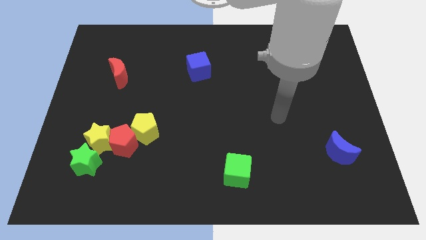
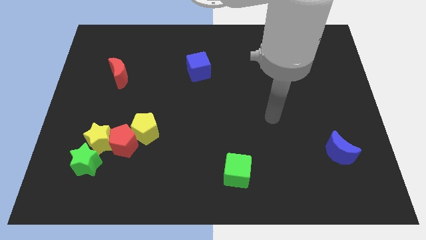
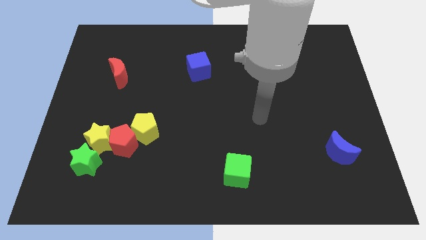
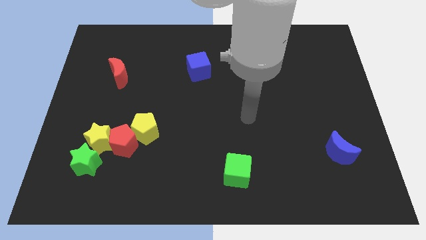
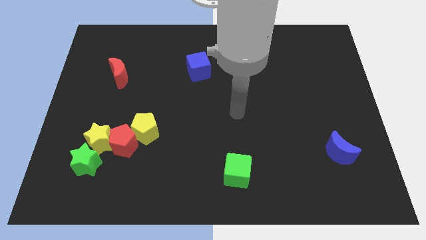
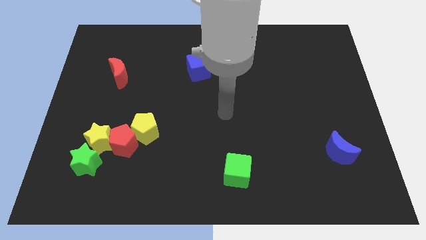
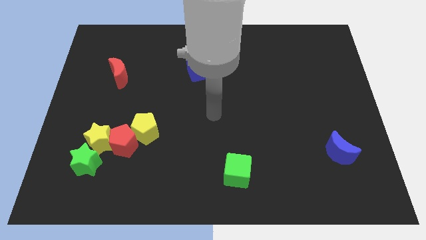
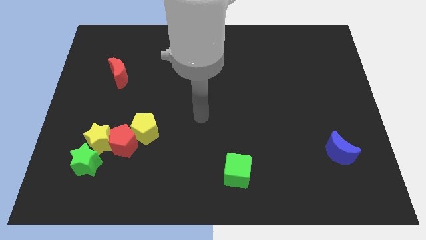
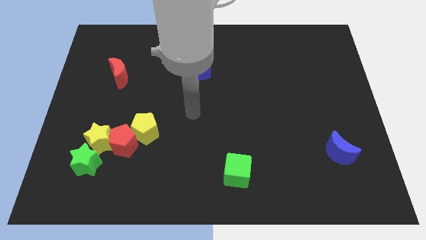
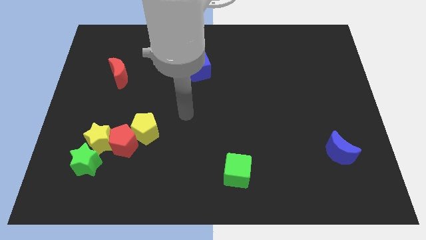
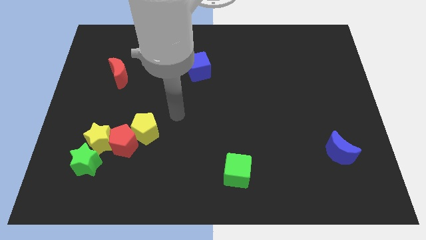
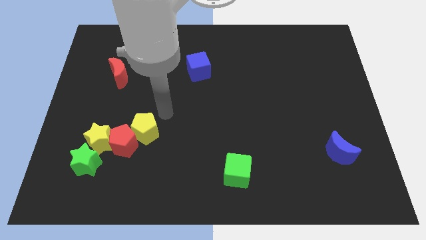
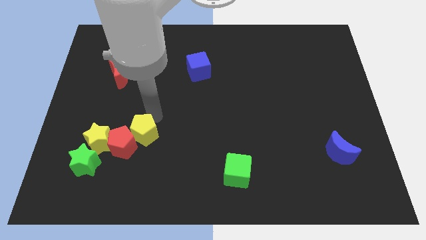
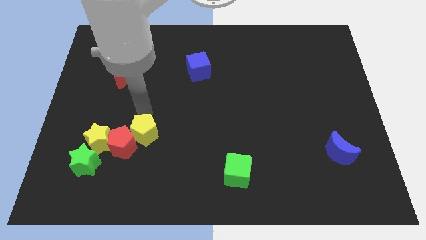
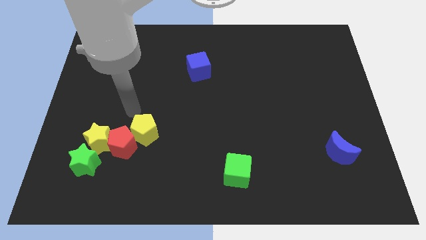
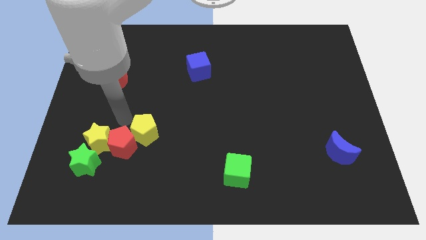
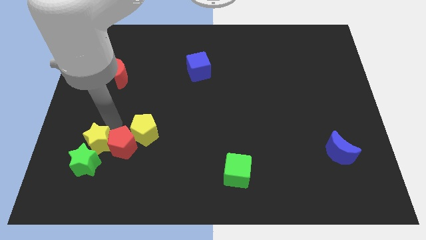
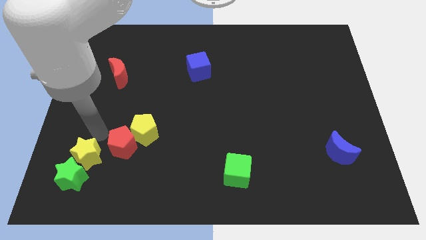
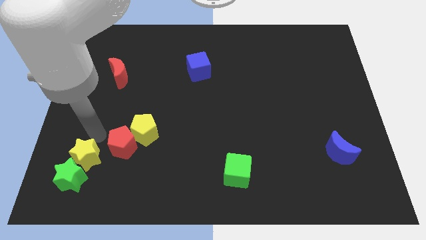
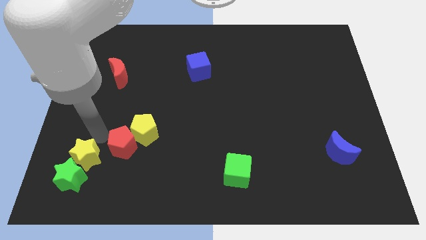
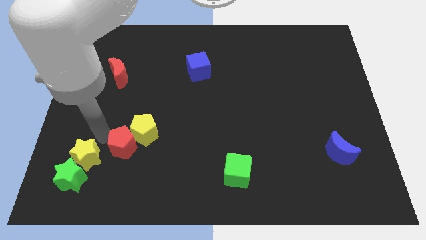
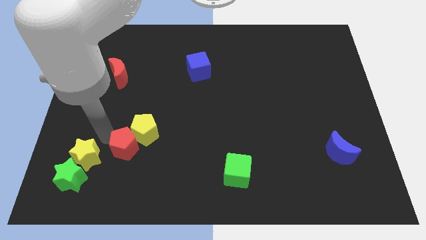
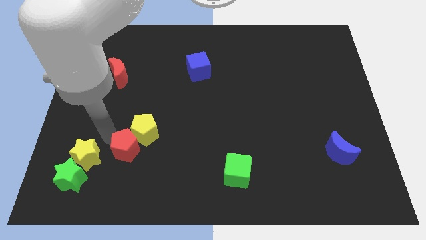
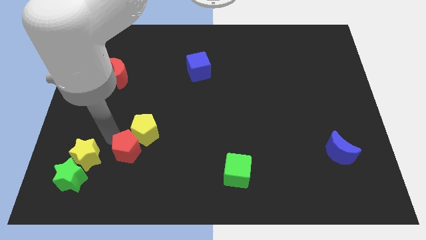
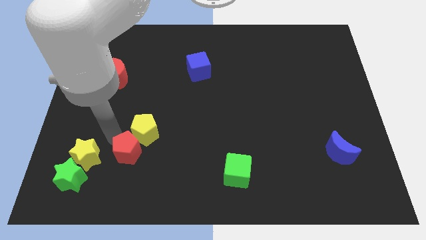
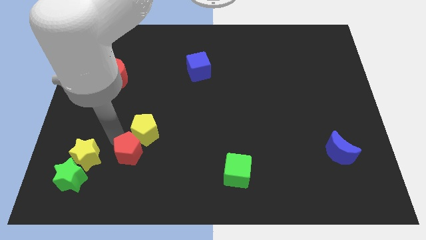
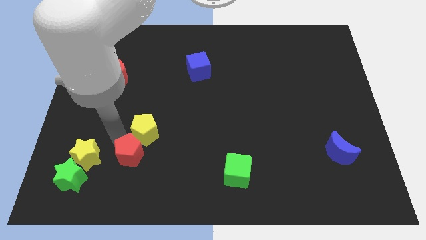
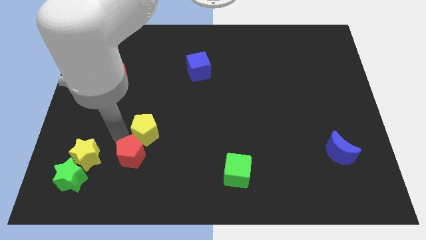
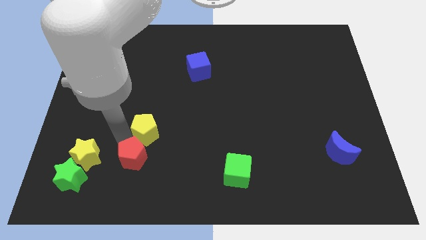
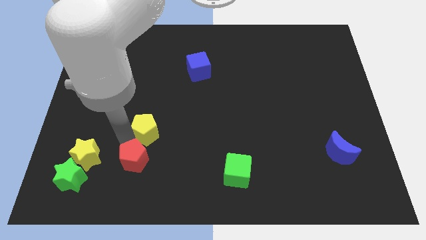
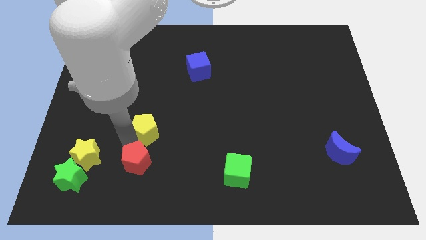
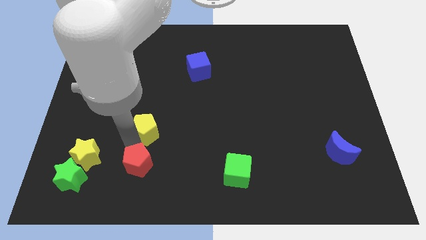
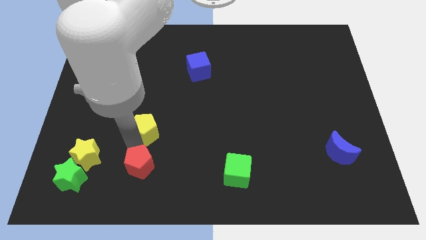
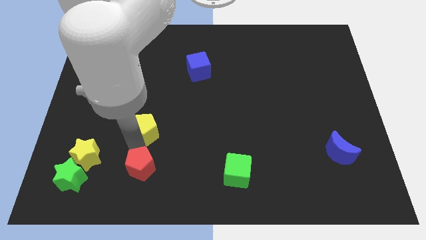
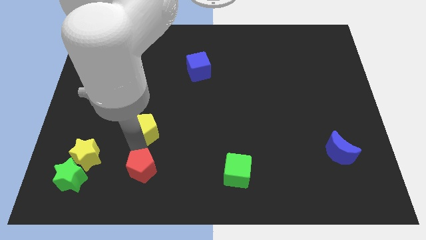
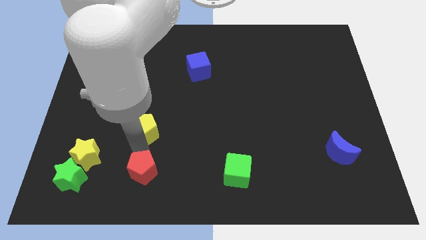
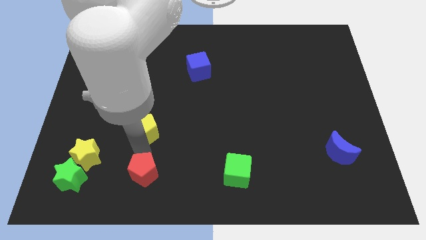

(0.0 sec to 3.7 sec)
pull the red pentagon apart from the clump

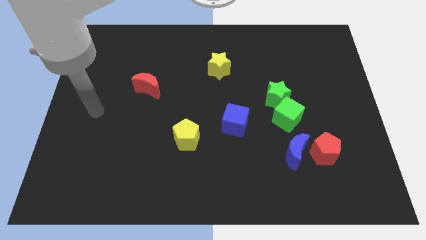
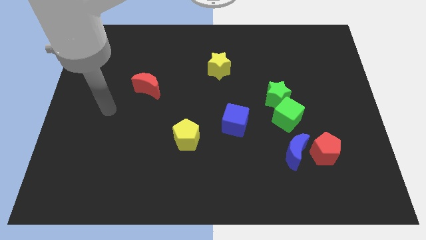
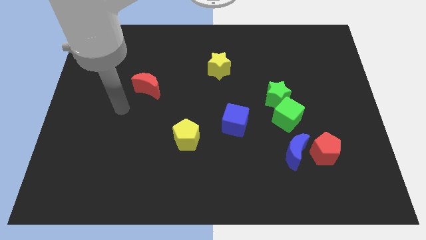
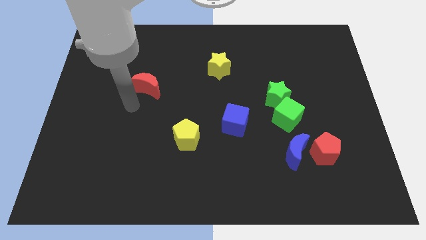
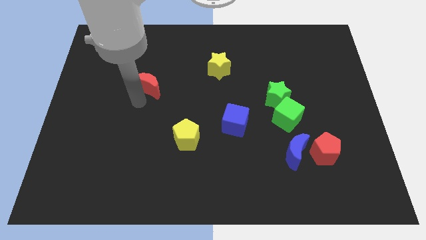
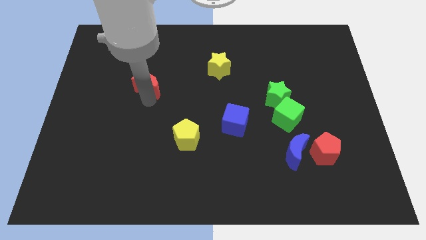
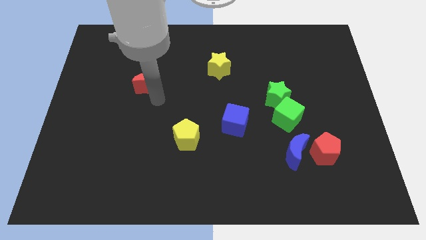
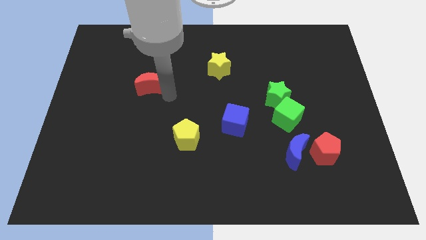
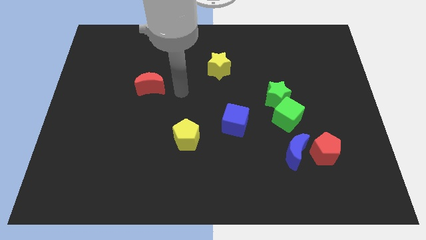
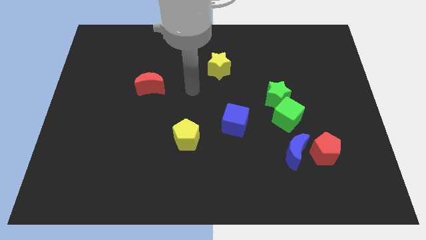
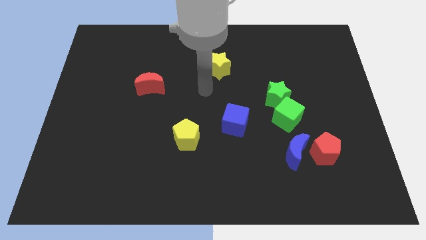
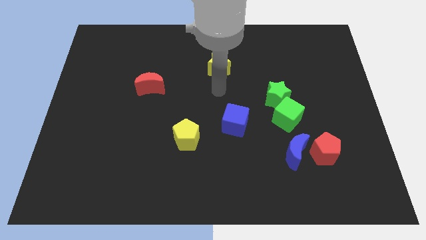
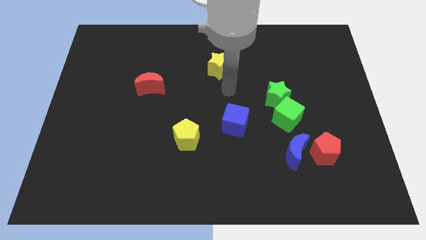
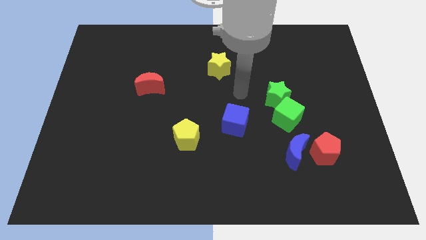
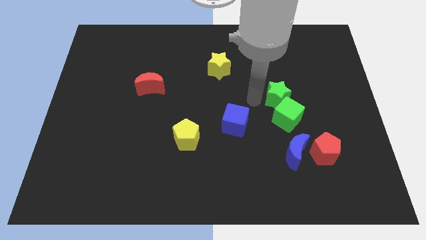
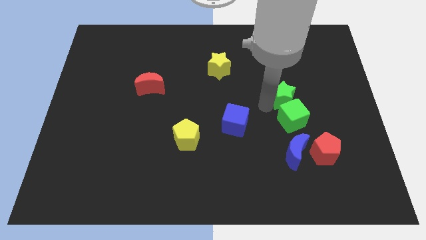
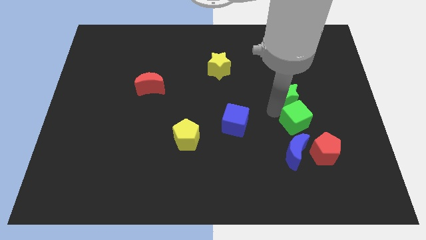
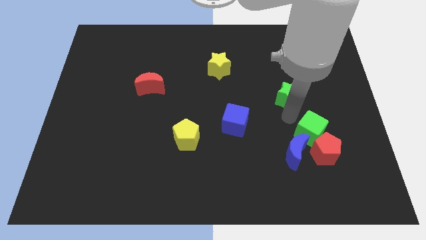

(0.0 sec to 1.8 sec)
pull the green star apart from the green cube

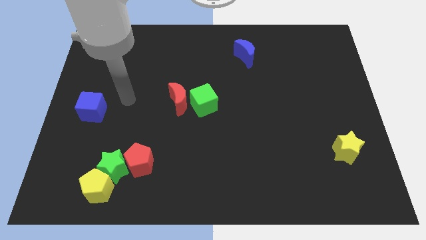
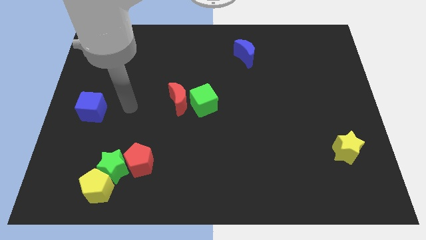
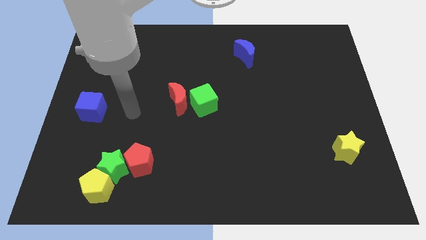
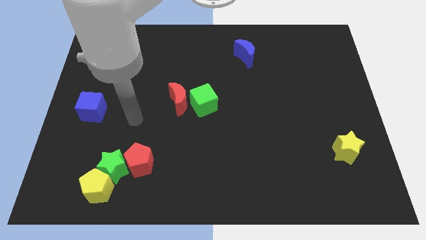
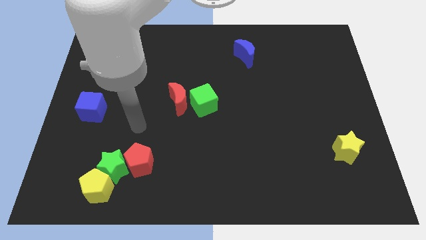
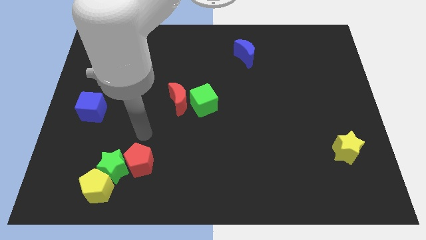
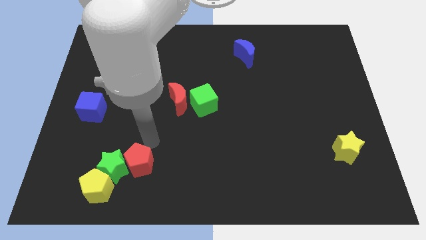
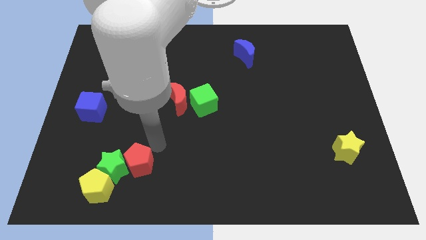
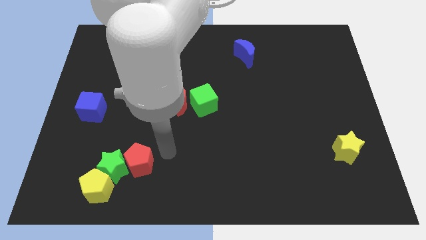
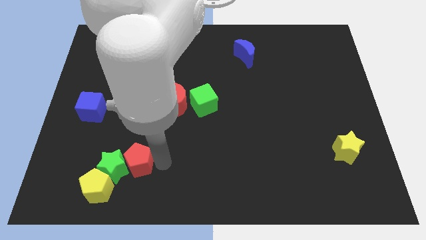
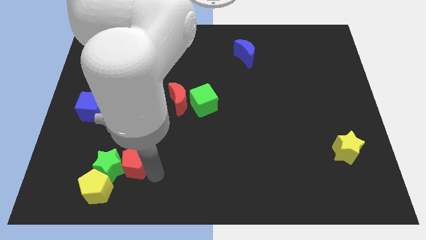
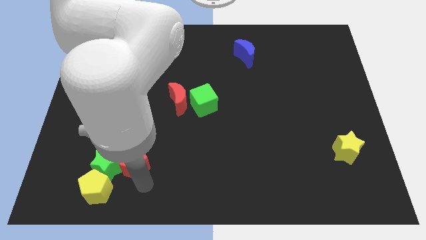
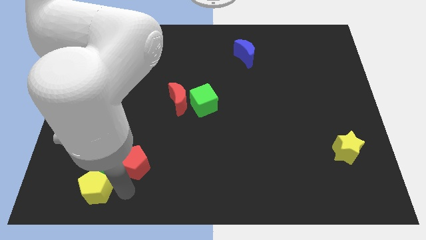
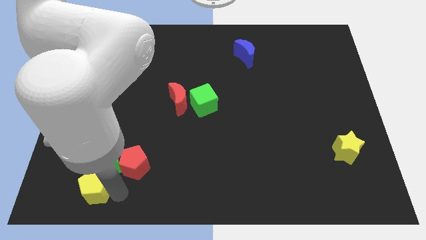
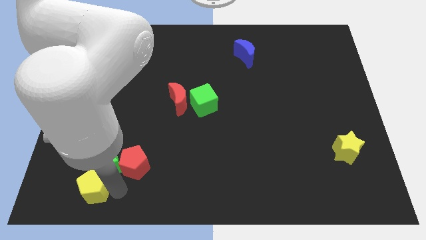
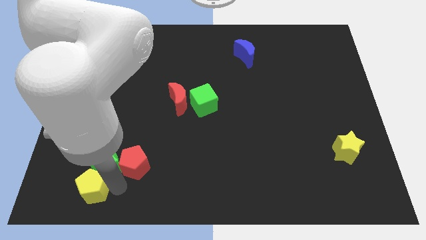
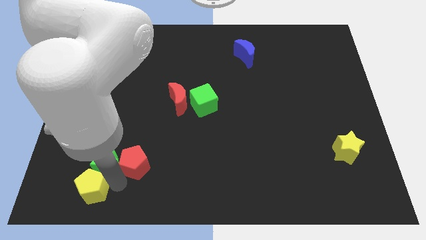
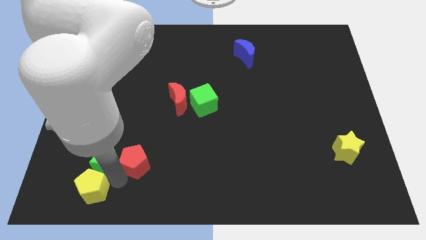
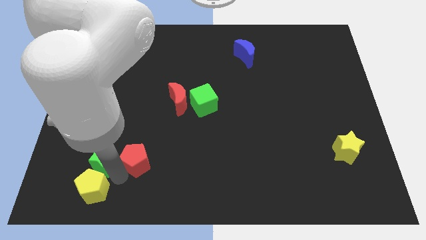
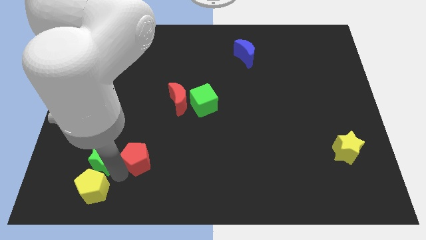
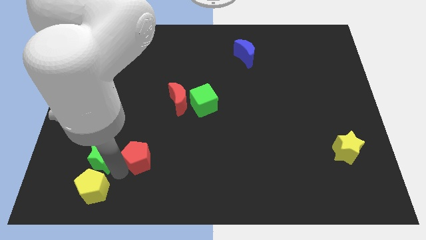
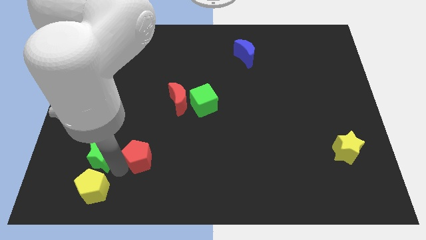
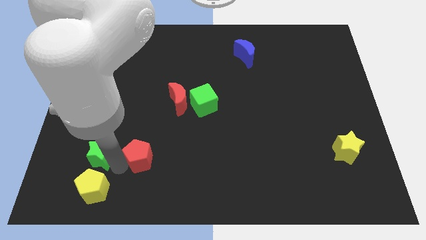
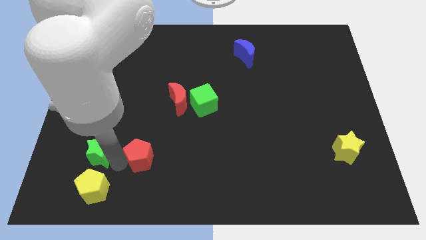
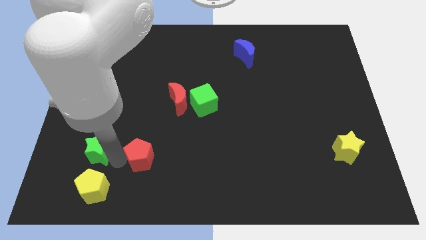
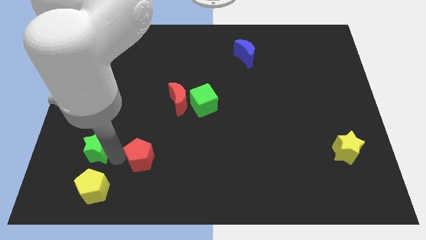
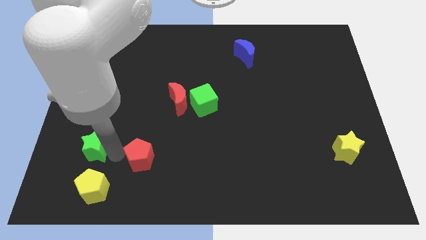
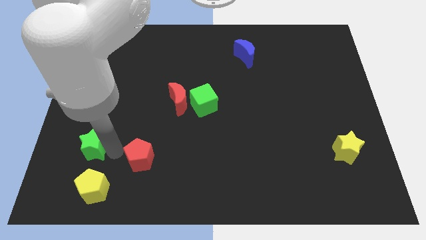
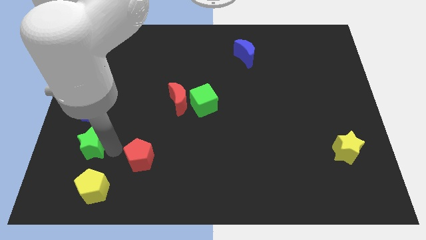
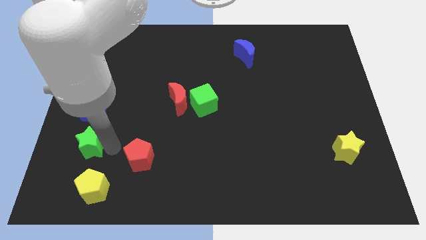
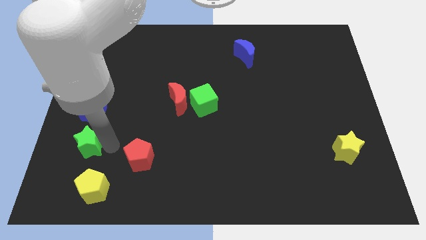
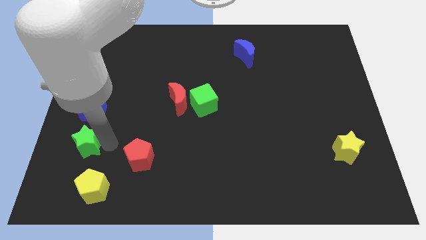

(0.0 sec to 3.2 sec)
separate the green star from the red pentagon and yellow pentagon

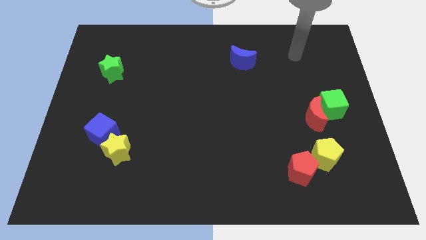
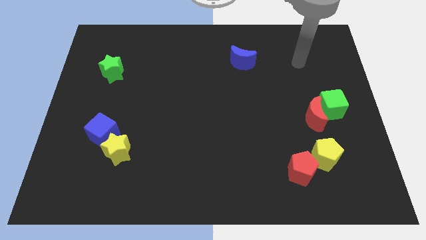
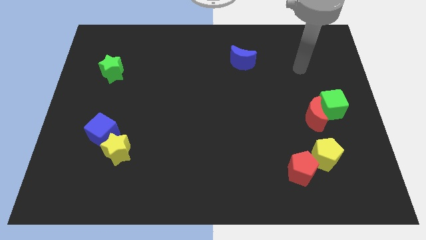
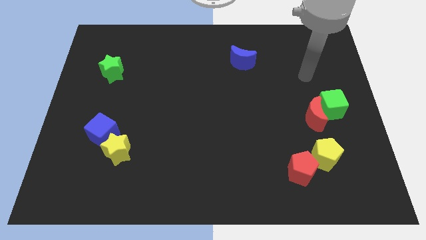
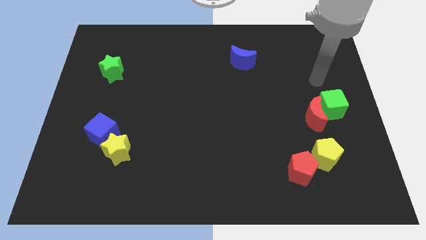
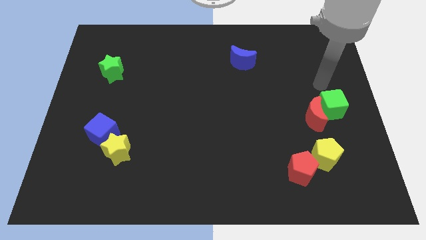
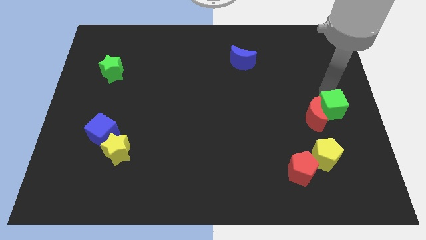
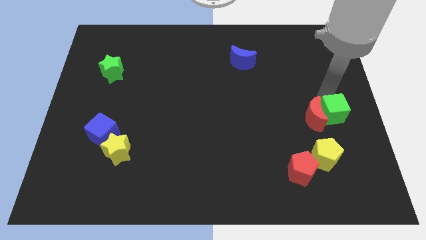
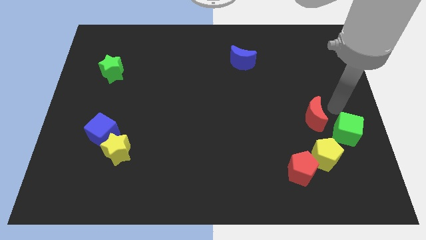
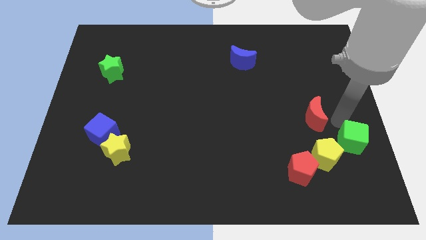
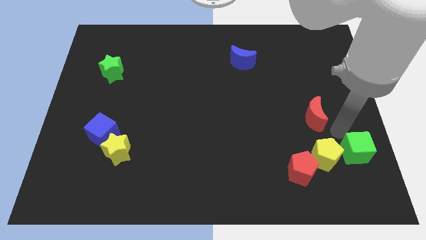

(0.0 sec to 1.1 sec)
pull the red moon apart from the green cube
